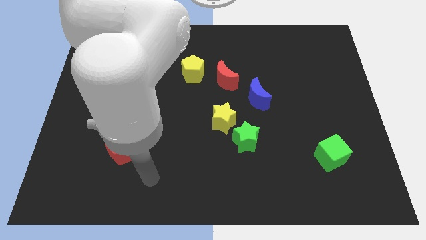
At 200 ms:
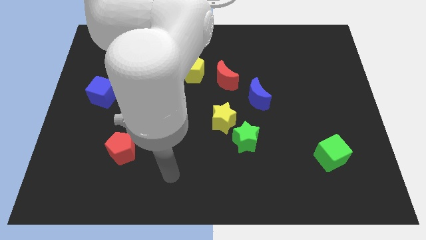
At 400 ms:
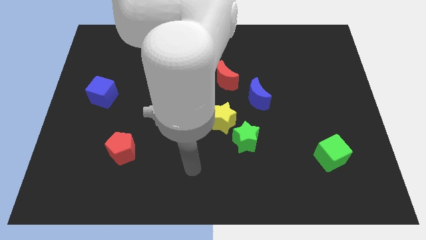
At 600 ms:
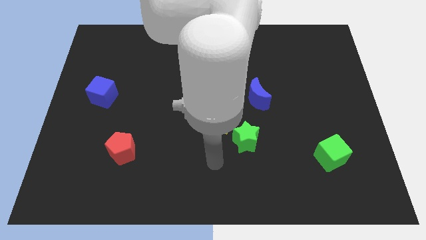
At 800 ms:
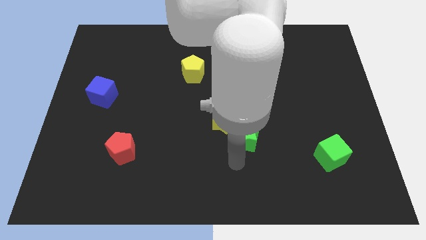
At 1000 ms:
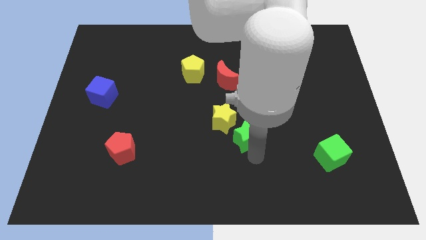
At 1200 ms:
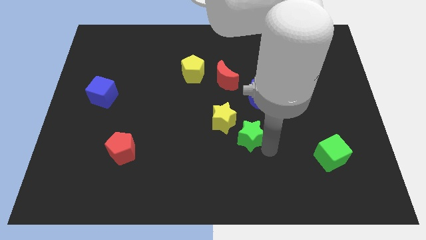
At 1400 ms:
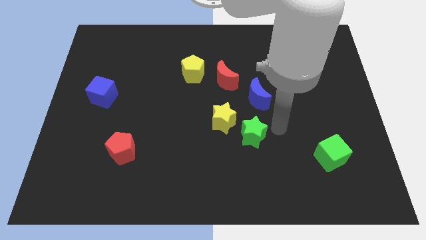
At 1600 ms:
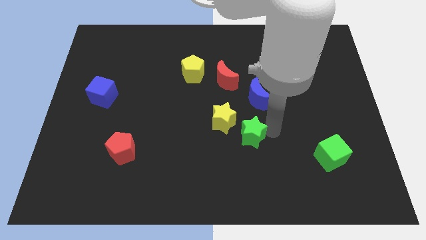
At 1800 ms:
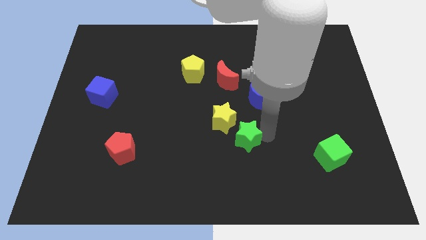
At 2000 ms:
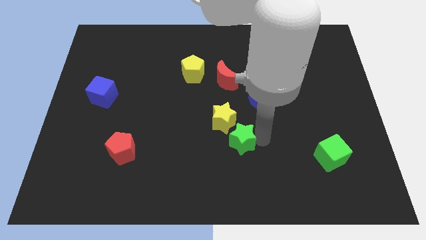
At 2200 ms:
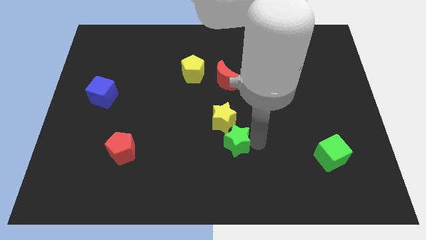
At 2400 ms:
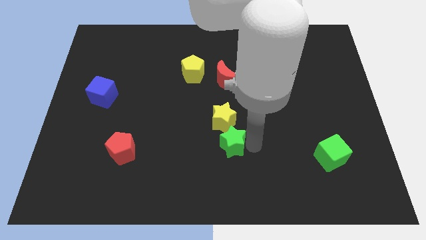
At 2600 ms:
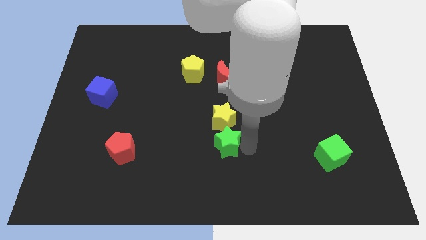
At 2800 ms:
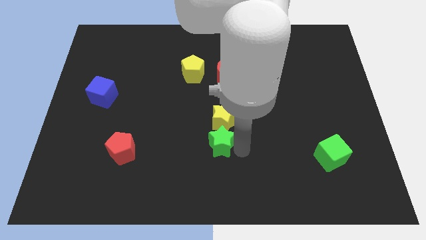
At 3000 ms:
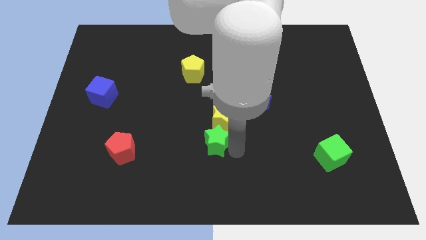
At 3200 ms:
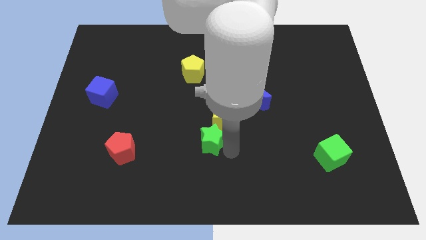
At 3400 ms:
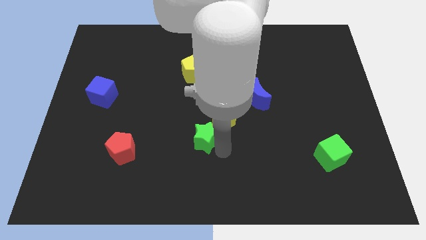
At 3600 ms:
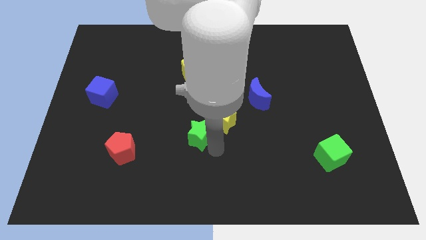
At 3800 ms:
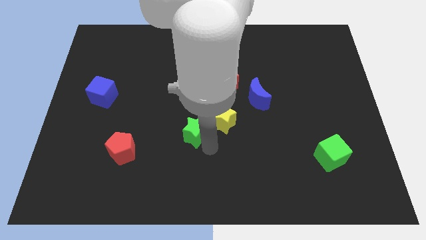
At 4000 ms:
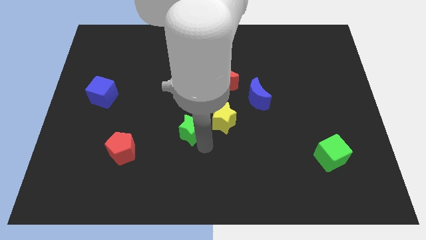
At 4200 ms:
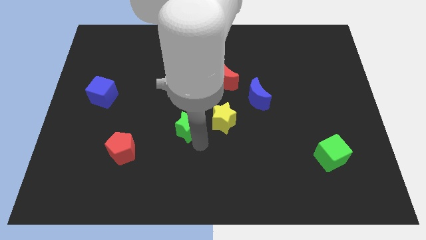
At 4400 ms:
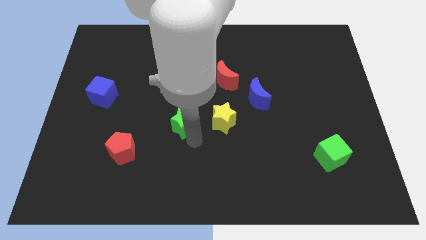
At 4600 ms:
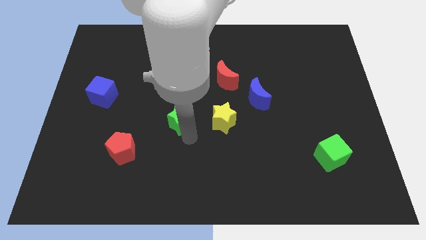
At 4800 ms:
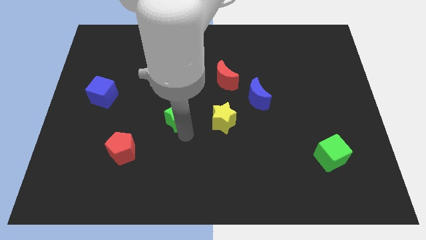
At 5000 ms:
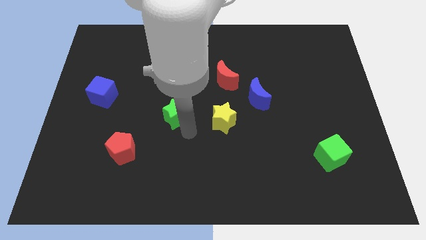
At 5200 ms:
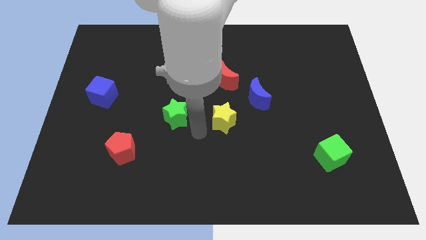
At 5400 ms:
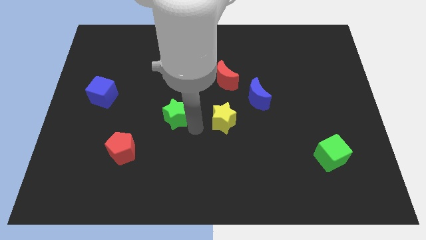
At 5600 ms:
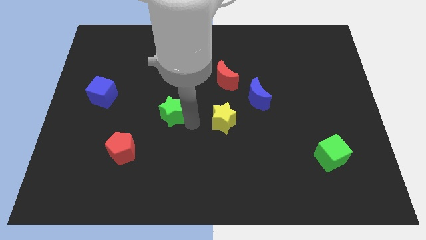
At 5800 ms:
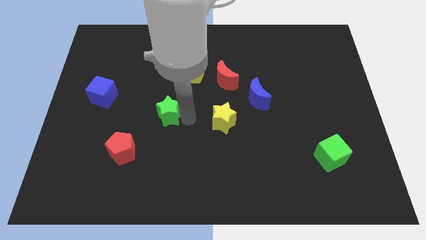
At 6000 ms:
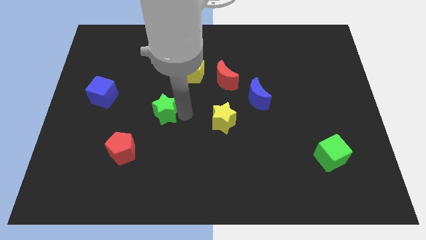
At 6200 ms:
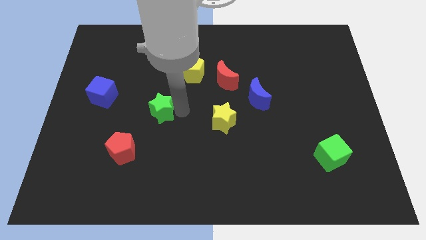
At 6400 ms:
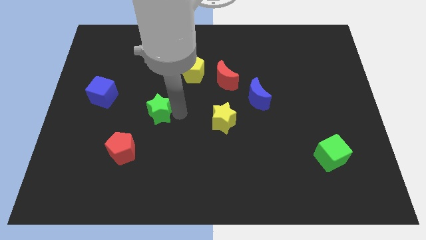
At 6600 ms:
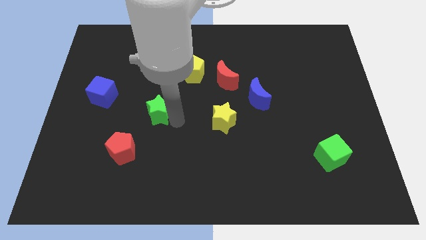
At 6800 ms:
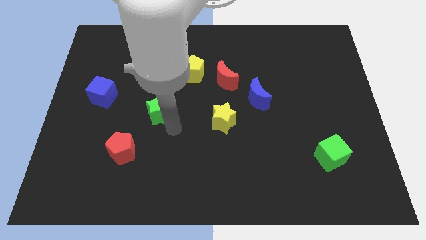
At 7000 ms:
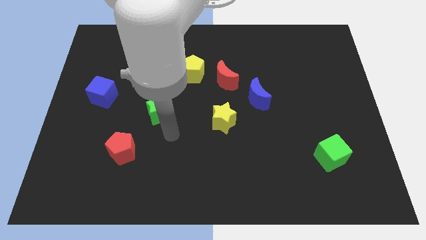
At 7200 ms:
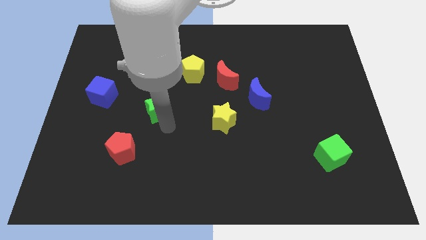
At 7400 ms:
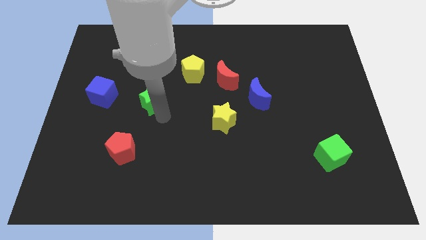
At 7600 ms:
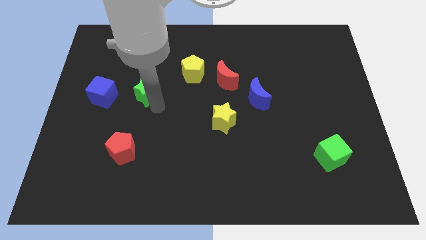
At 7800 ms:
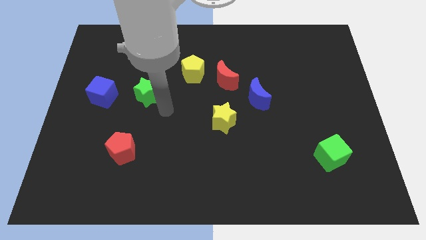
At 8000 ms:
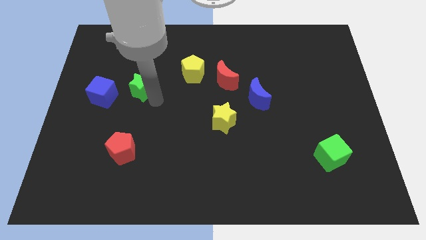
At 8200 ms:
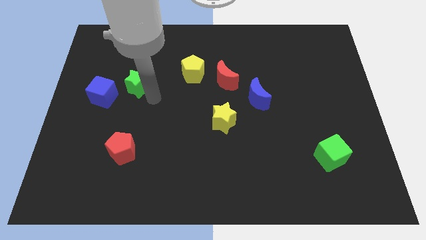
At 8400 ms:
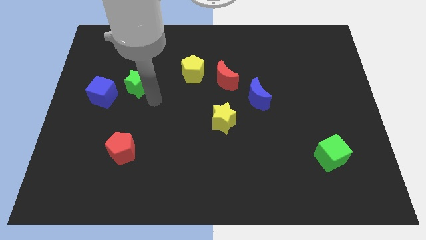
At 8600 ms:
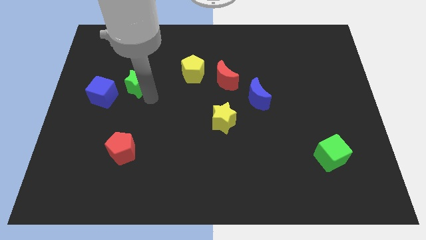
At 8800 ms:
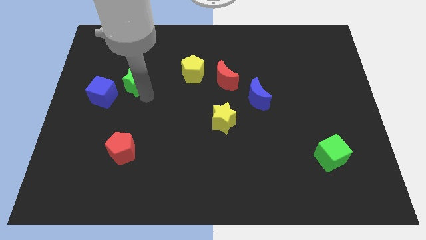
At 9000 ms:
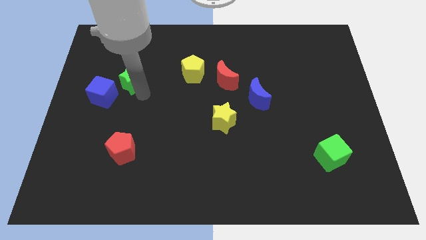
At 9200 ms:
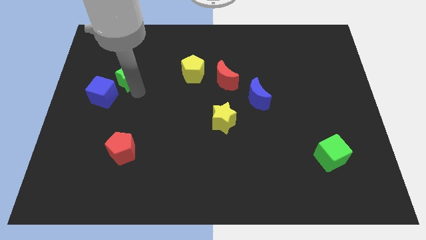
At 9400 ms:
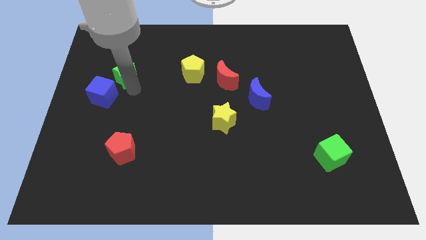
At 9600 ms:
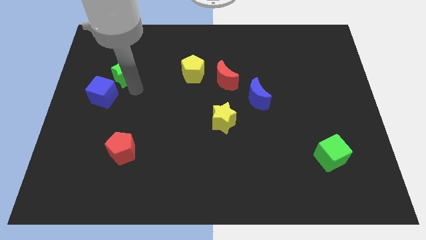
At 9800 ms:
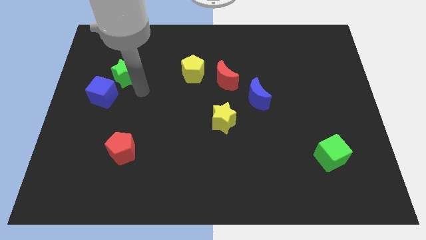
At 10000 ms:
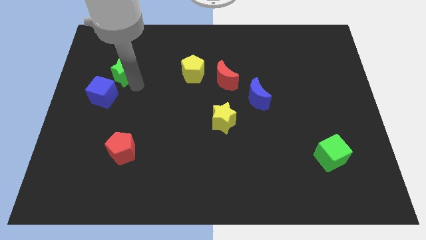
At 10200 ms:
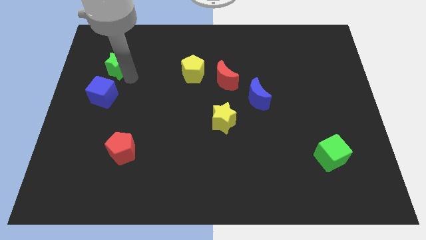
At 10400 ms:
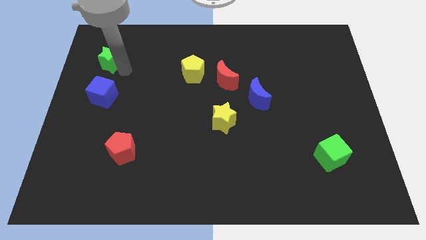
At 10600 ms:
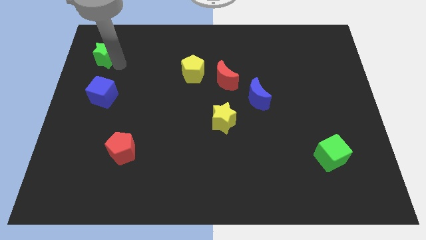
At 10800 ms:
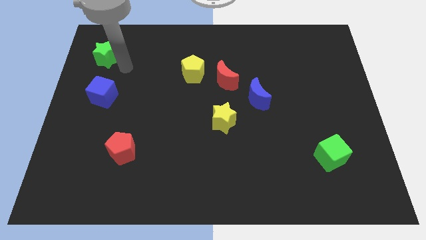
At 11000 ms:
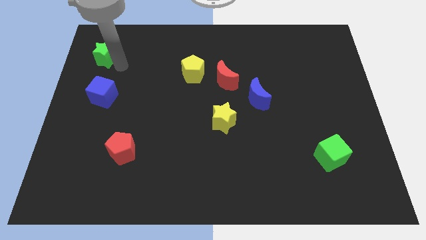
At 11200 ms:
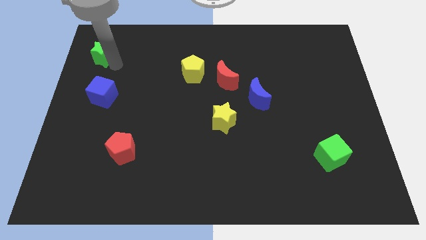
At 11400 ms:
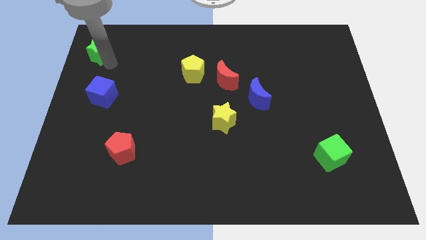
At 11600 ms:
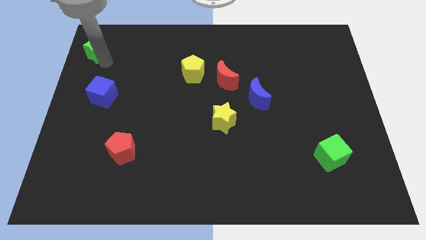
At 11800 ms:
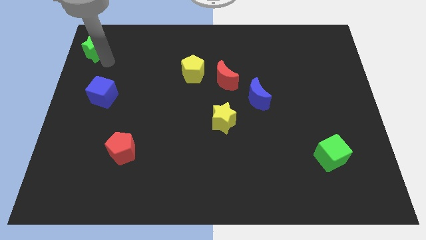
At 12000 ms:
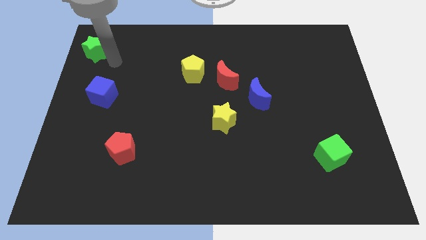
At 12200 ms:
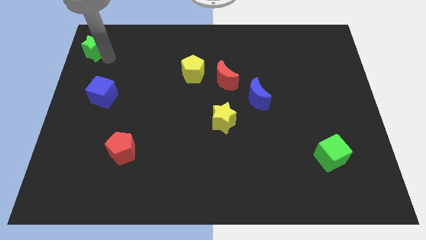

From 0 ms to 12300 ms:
push the green star to the upper left corner
